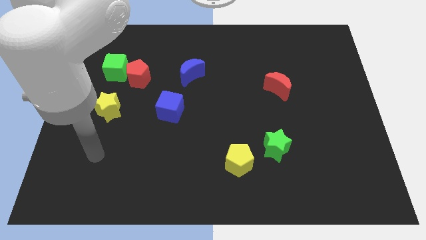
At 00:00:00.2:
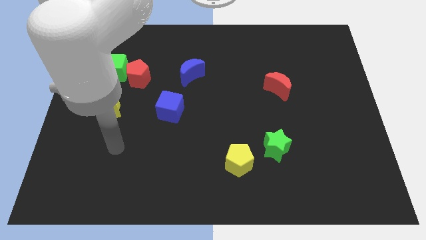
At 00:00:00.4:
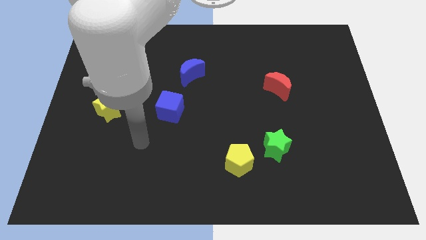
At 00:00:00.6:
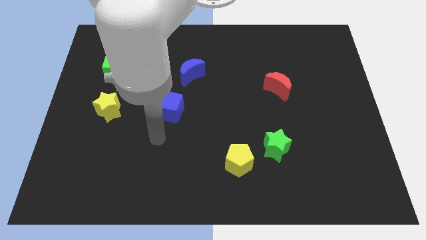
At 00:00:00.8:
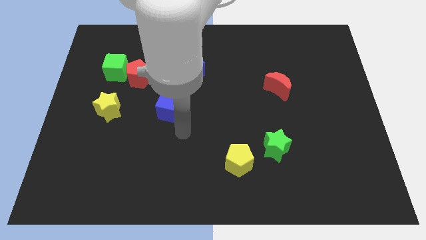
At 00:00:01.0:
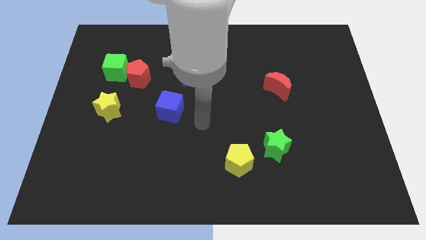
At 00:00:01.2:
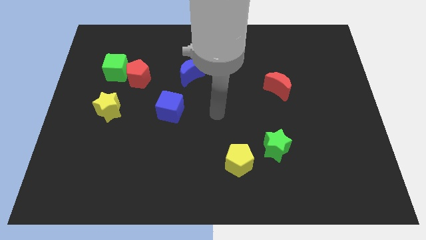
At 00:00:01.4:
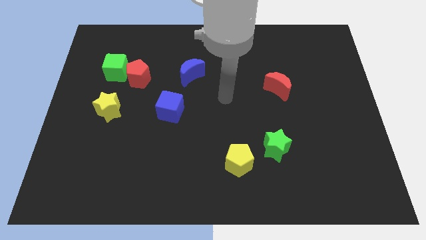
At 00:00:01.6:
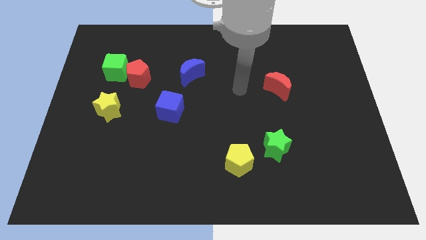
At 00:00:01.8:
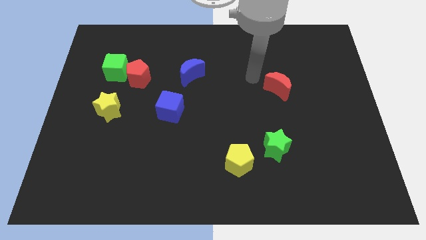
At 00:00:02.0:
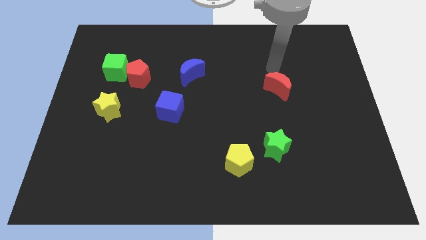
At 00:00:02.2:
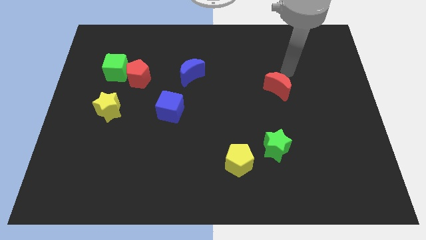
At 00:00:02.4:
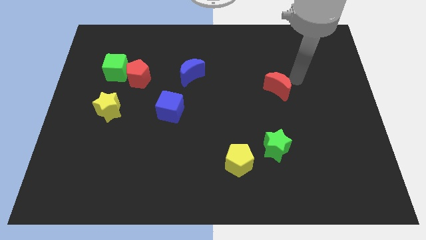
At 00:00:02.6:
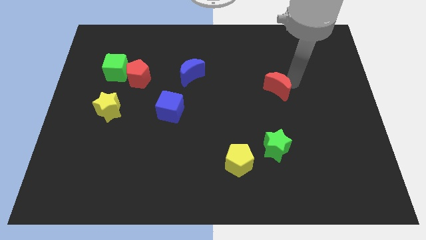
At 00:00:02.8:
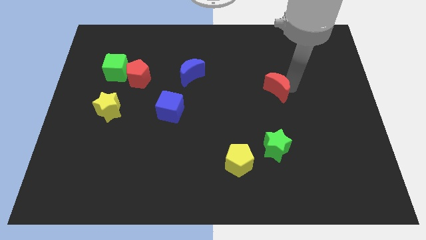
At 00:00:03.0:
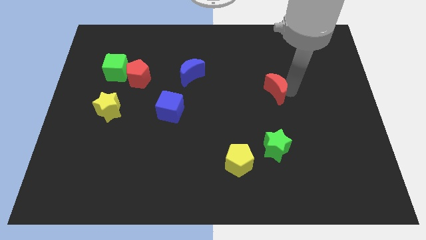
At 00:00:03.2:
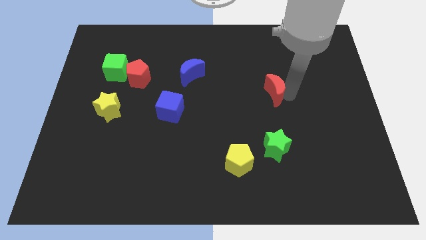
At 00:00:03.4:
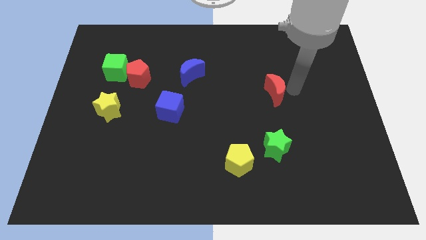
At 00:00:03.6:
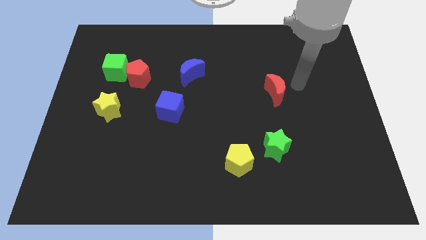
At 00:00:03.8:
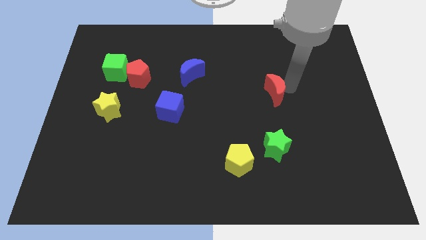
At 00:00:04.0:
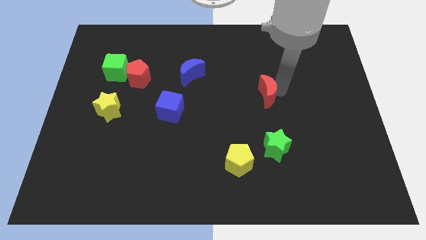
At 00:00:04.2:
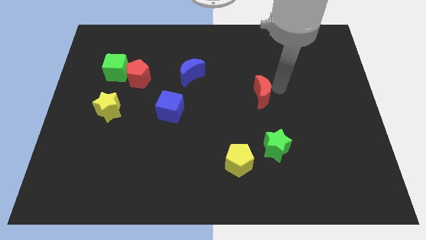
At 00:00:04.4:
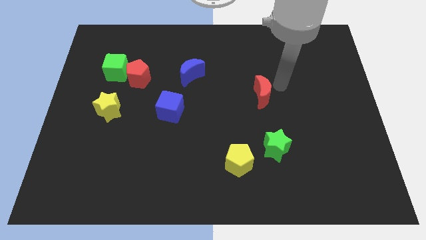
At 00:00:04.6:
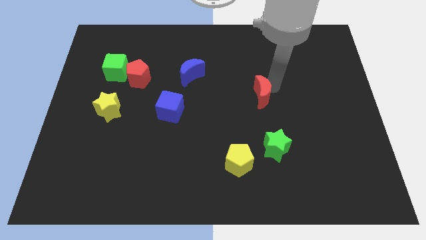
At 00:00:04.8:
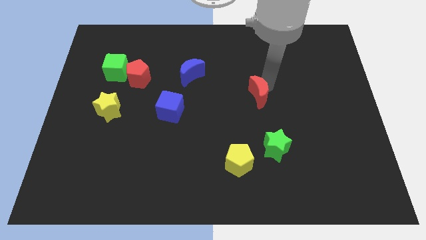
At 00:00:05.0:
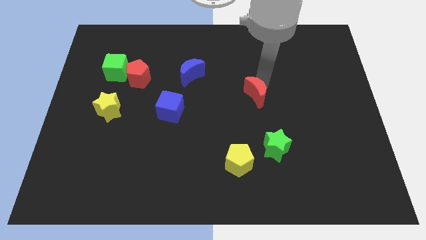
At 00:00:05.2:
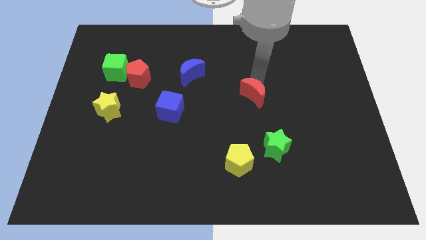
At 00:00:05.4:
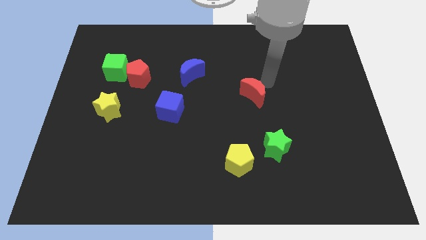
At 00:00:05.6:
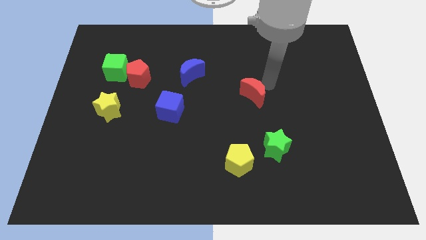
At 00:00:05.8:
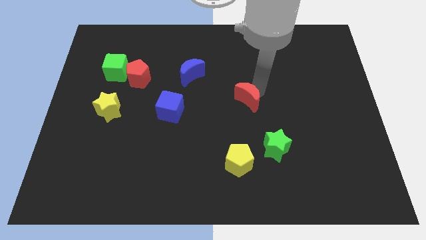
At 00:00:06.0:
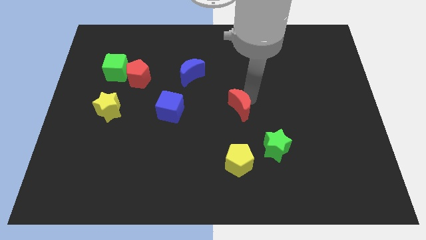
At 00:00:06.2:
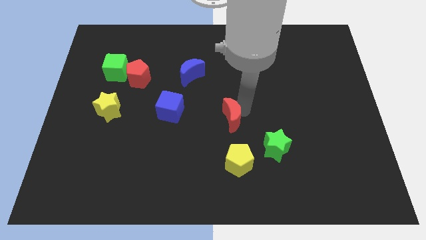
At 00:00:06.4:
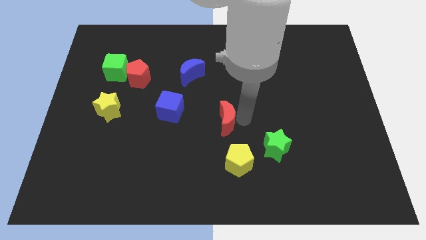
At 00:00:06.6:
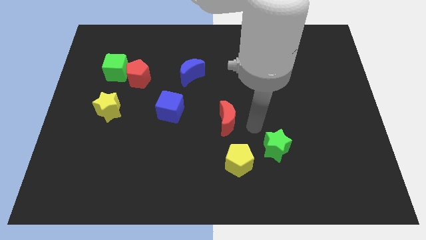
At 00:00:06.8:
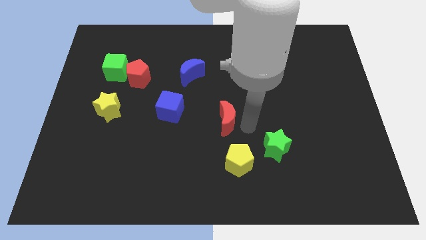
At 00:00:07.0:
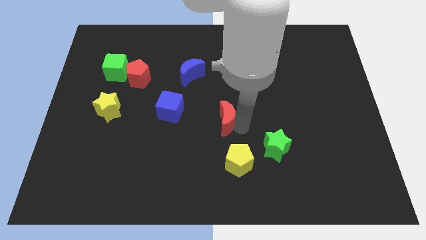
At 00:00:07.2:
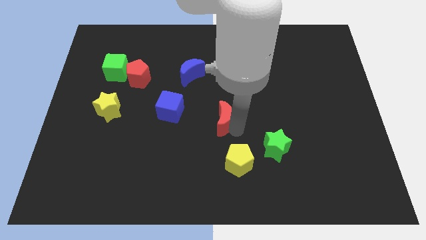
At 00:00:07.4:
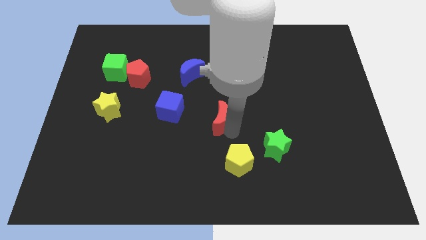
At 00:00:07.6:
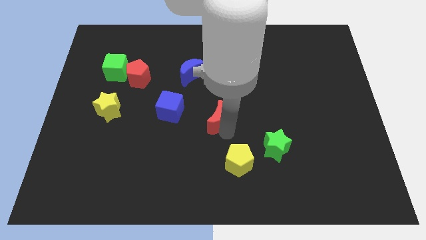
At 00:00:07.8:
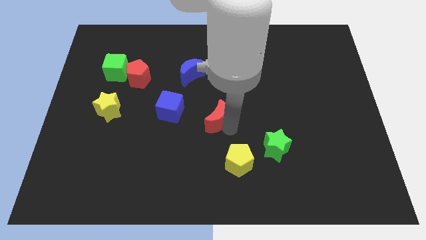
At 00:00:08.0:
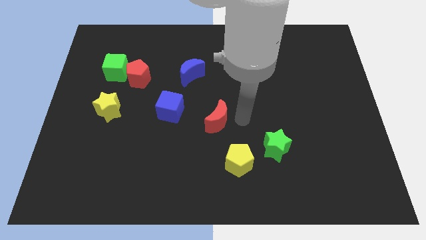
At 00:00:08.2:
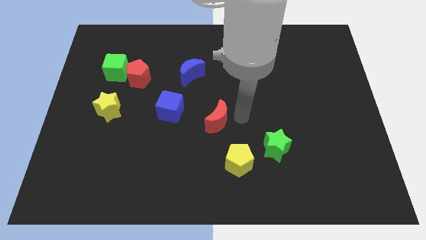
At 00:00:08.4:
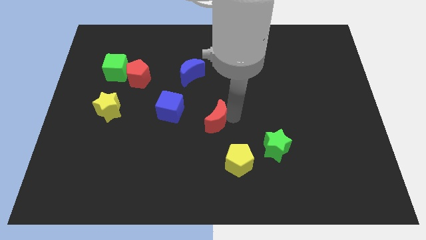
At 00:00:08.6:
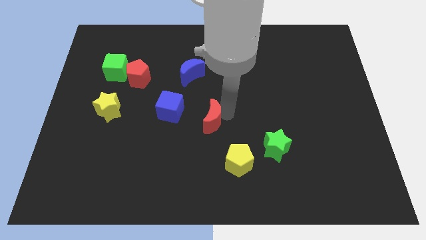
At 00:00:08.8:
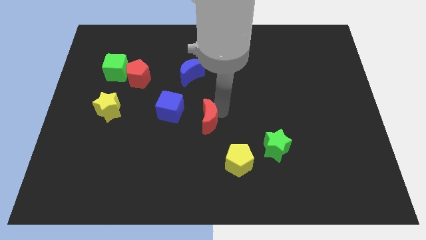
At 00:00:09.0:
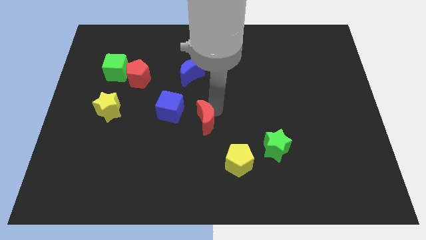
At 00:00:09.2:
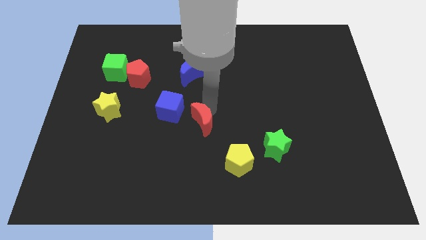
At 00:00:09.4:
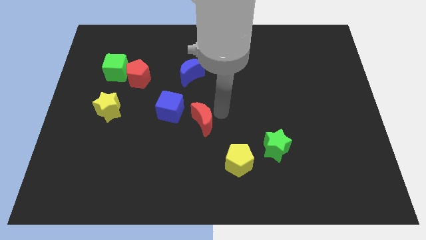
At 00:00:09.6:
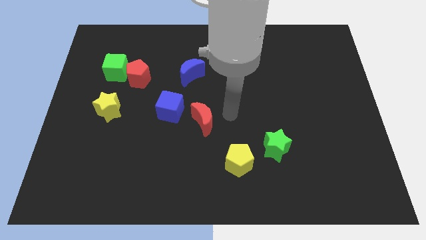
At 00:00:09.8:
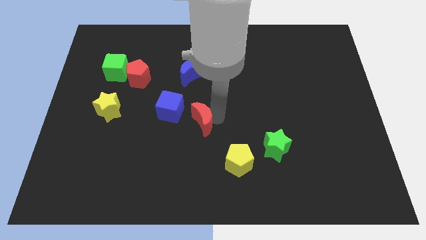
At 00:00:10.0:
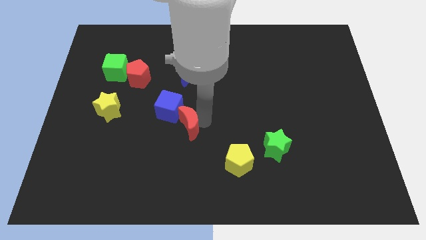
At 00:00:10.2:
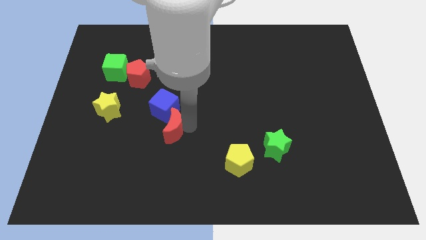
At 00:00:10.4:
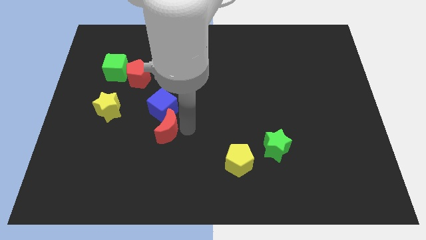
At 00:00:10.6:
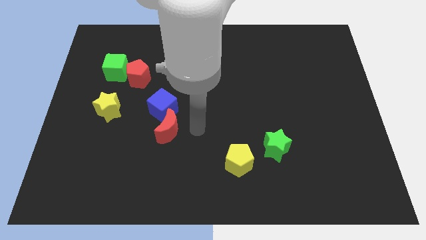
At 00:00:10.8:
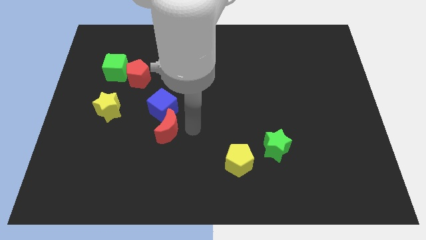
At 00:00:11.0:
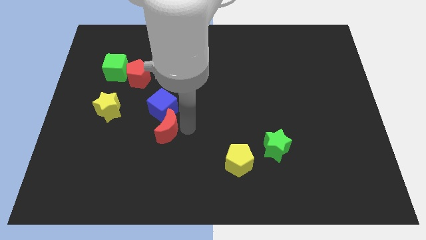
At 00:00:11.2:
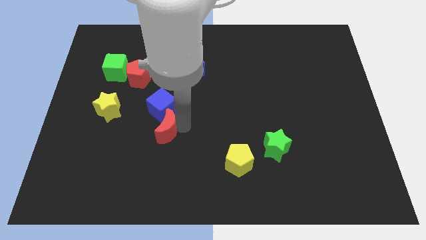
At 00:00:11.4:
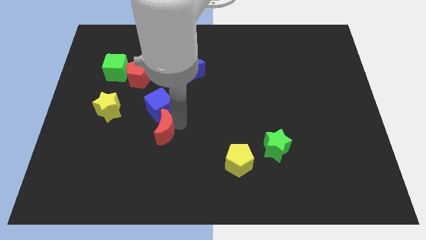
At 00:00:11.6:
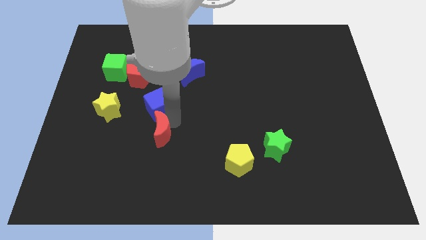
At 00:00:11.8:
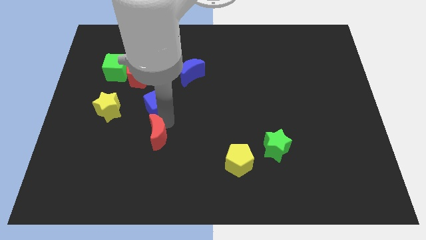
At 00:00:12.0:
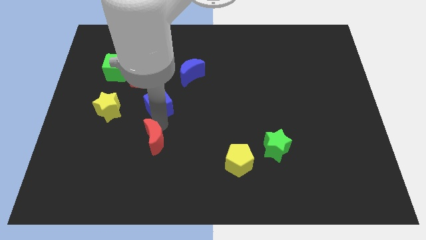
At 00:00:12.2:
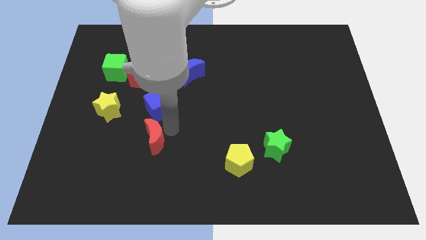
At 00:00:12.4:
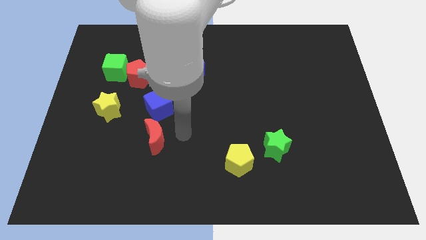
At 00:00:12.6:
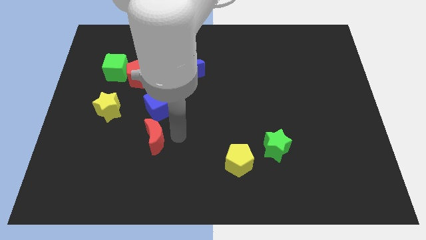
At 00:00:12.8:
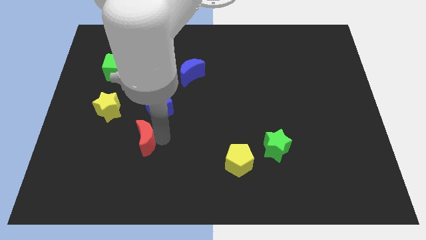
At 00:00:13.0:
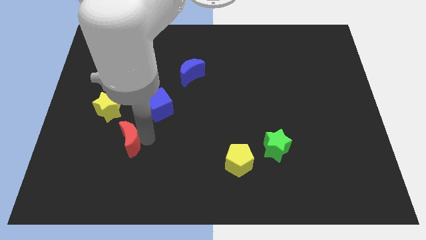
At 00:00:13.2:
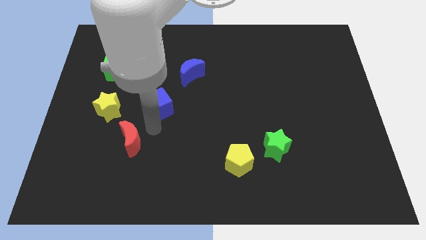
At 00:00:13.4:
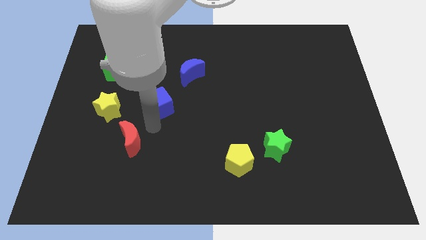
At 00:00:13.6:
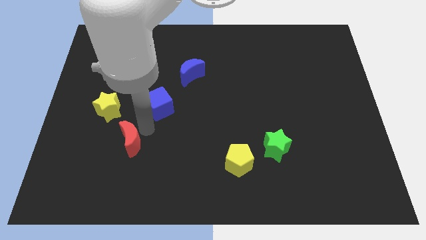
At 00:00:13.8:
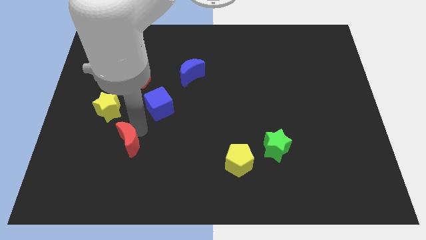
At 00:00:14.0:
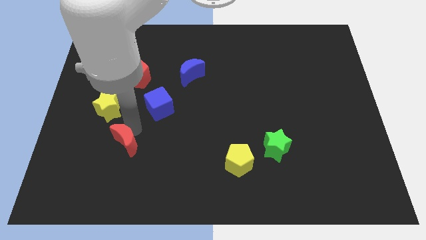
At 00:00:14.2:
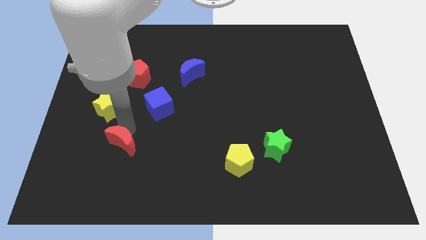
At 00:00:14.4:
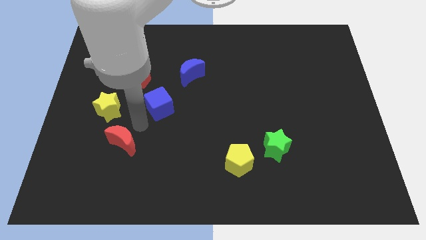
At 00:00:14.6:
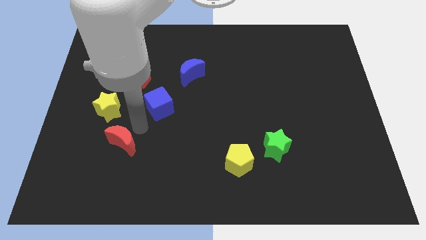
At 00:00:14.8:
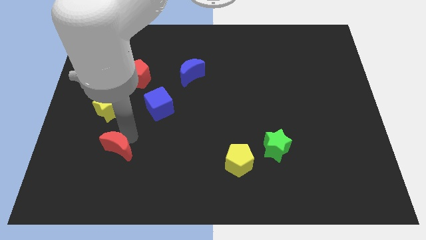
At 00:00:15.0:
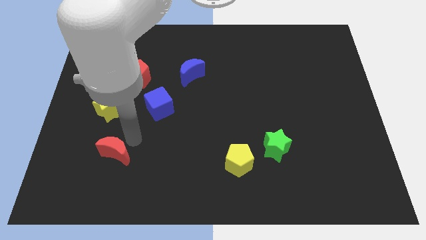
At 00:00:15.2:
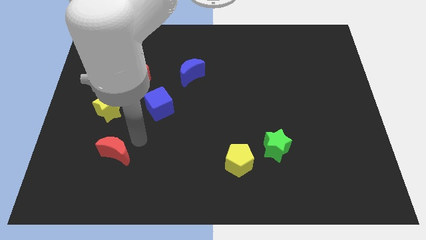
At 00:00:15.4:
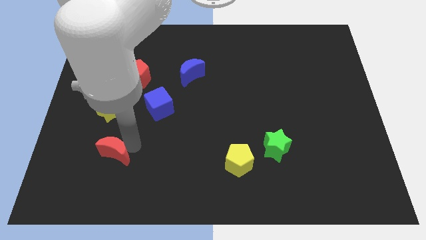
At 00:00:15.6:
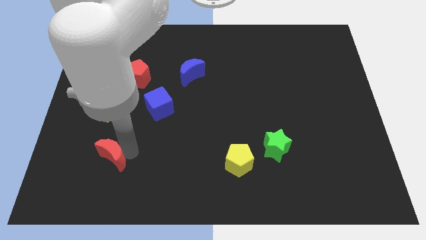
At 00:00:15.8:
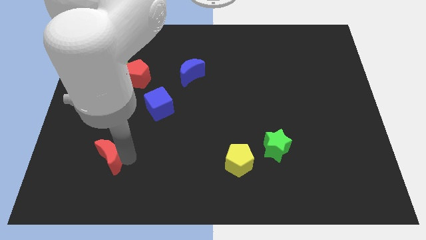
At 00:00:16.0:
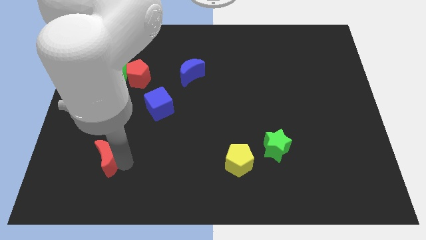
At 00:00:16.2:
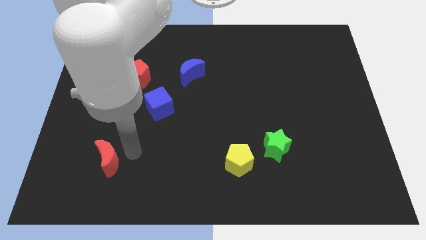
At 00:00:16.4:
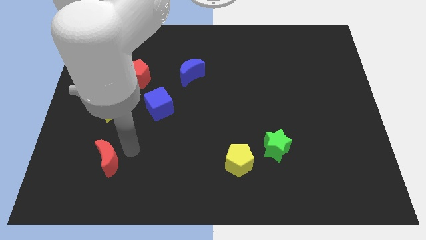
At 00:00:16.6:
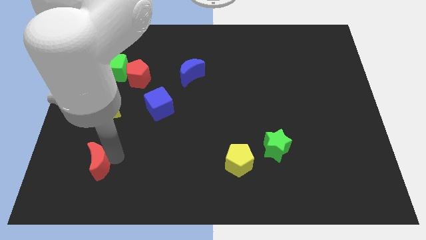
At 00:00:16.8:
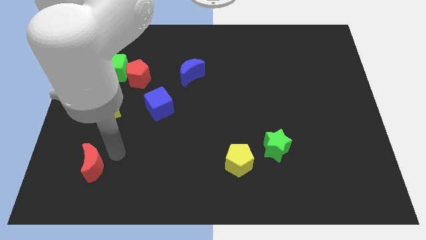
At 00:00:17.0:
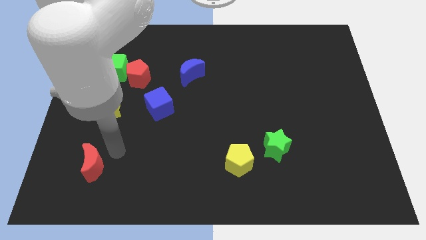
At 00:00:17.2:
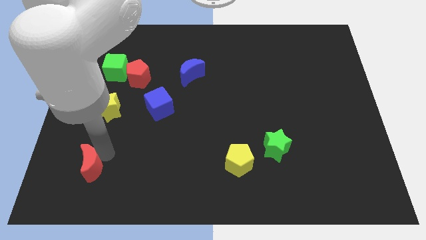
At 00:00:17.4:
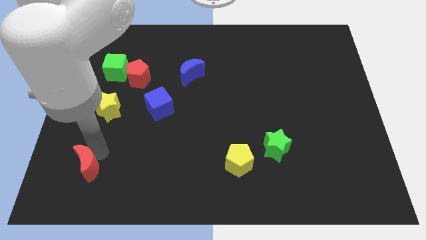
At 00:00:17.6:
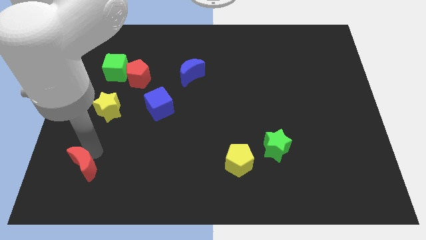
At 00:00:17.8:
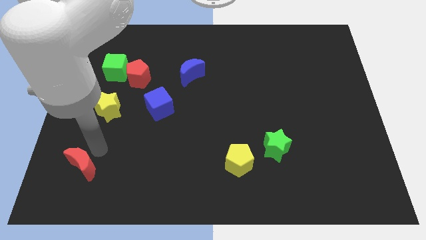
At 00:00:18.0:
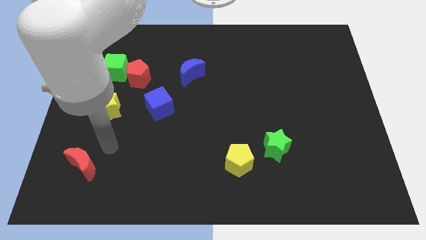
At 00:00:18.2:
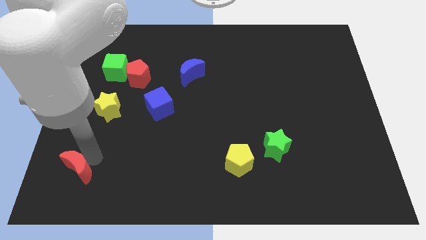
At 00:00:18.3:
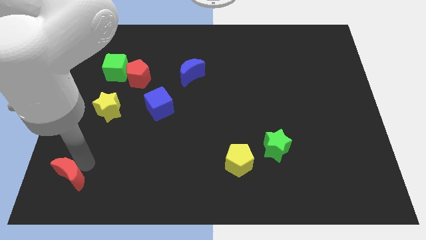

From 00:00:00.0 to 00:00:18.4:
put the red moon to the bottom left
